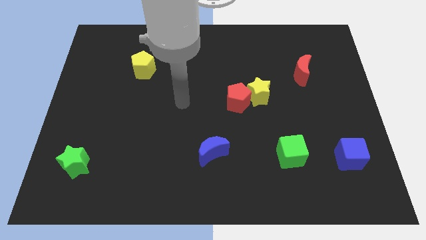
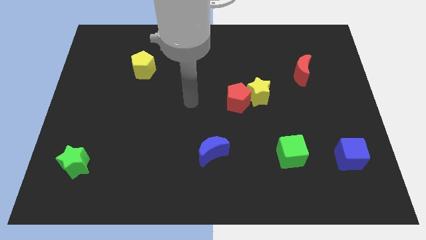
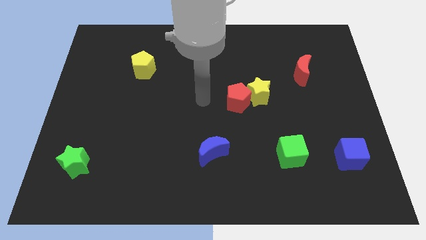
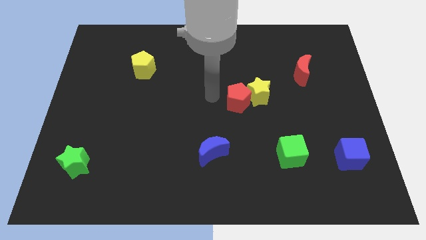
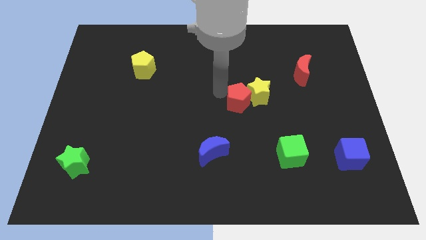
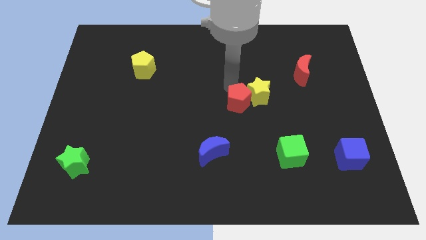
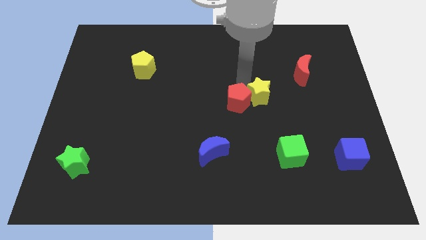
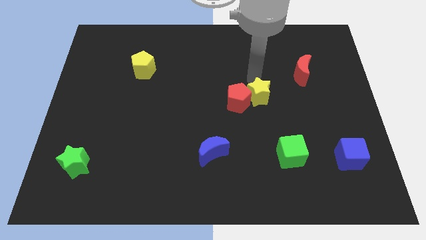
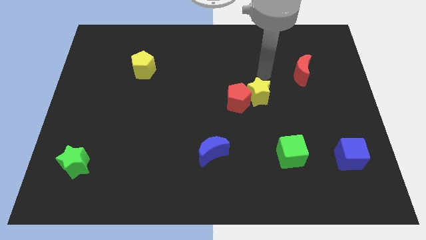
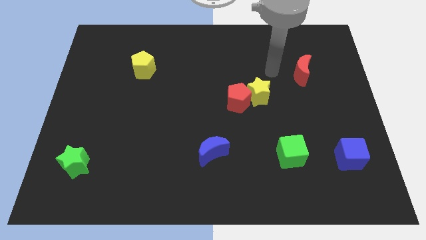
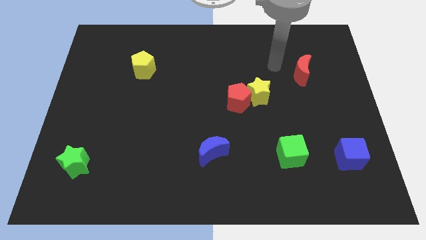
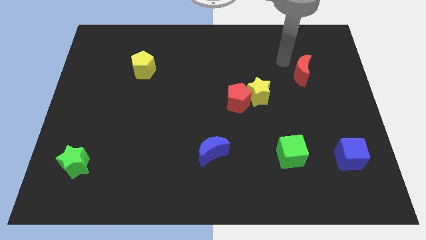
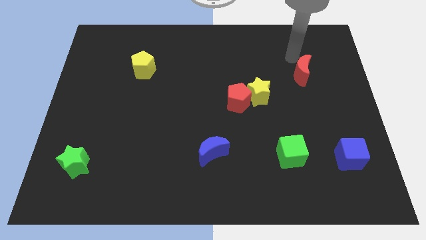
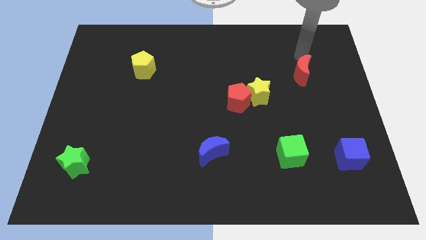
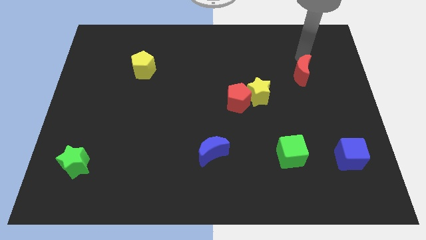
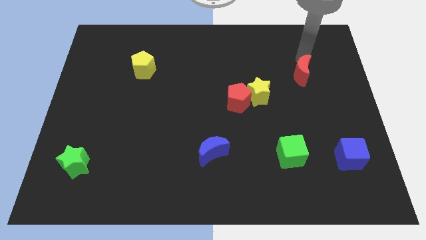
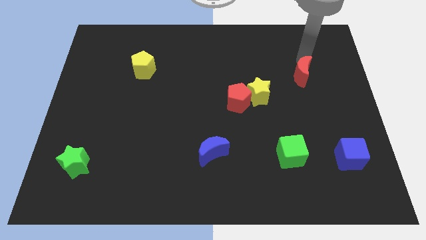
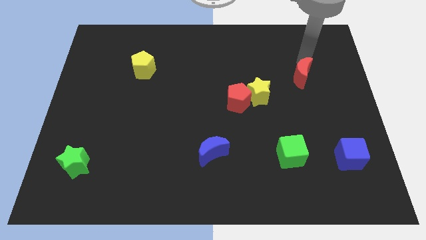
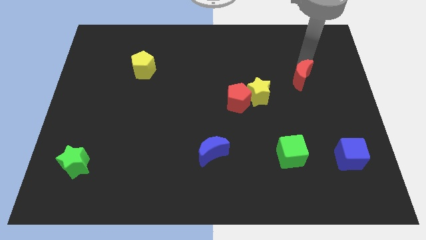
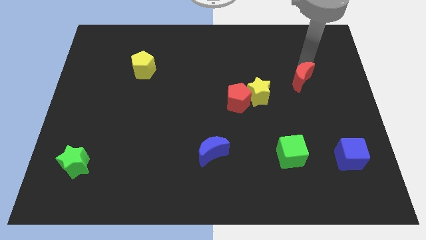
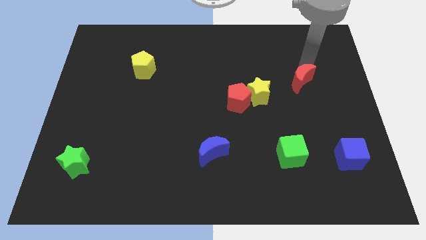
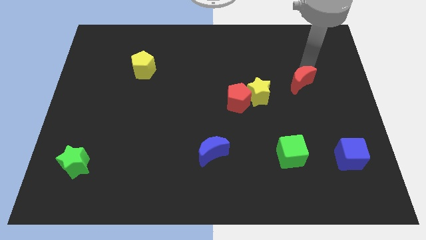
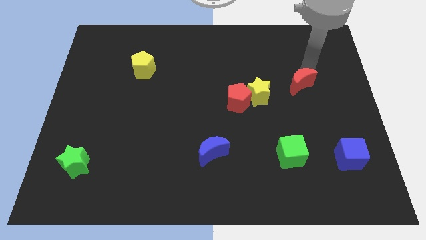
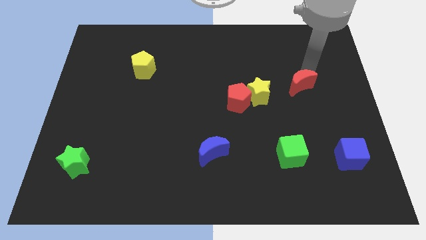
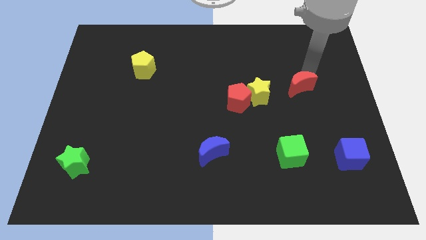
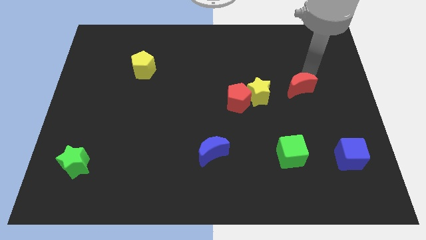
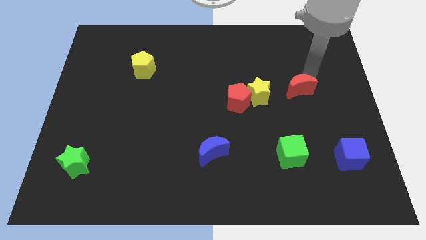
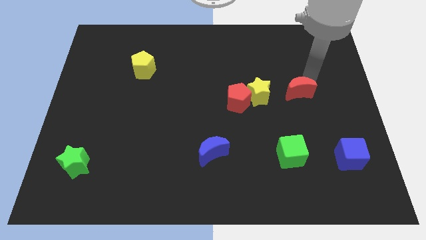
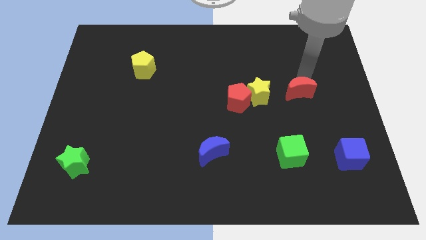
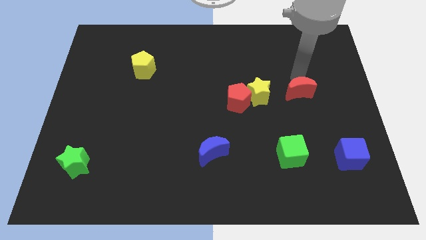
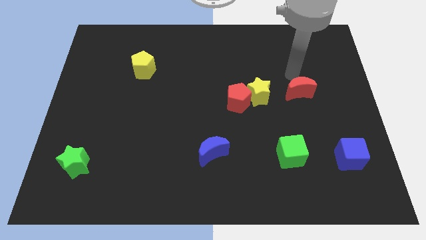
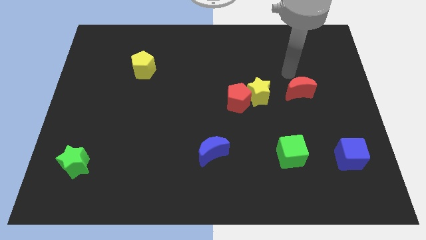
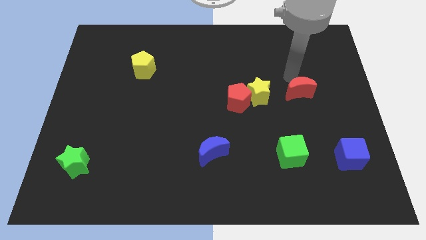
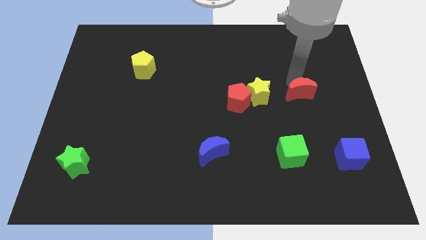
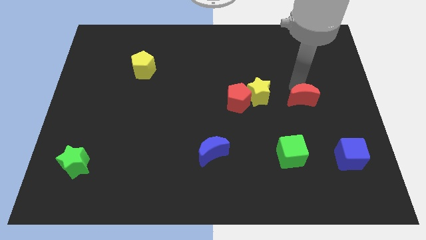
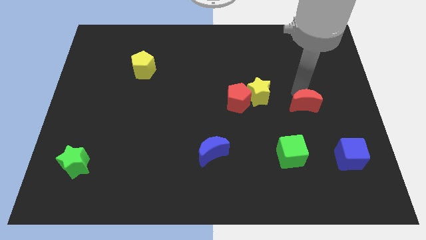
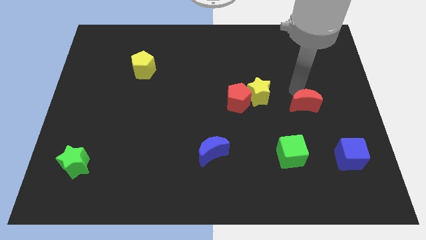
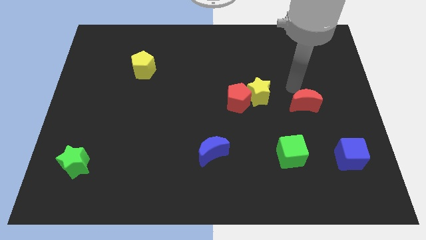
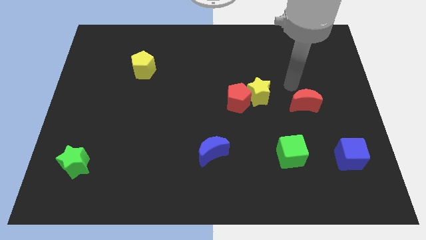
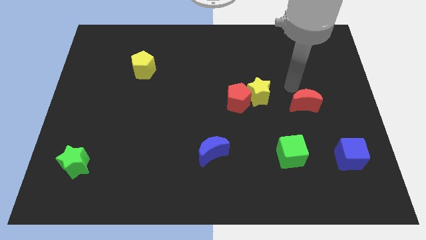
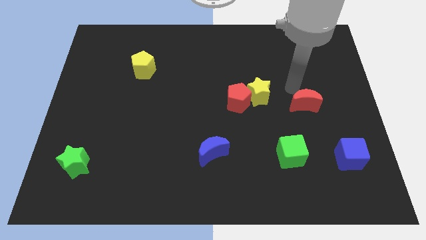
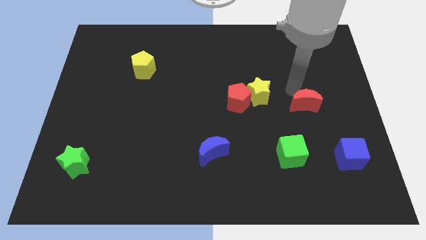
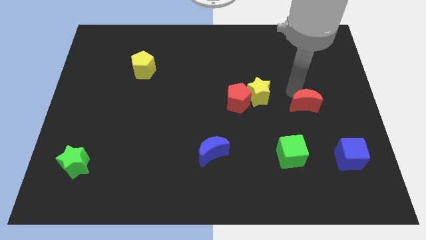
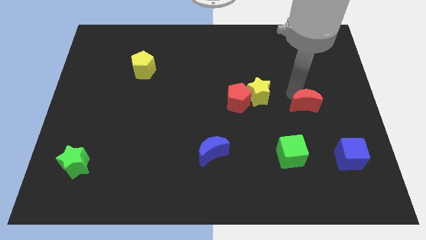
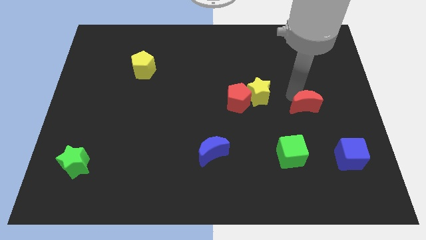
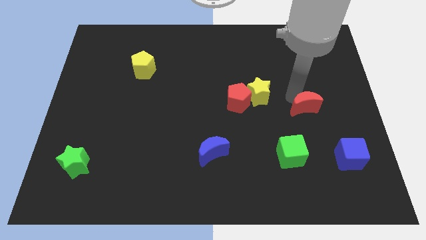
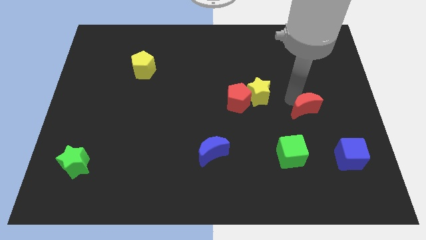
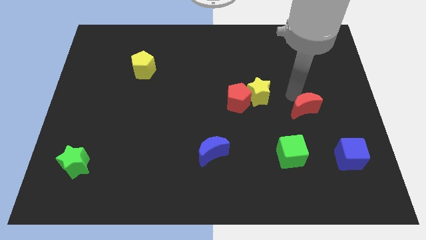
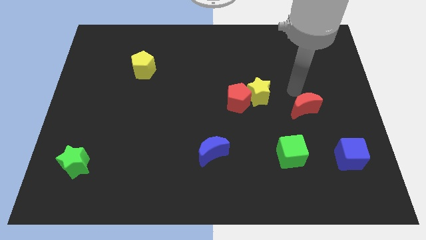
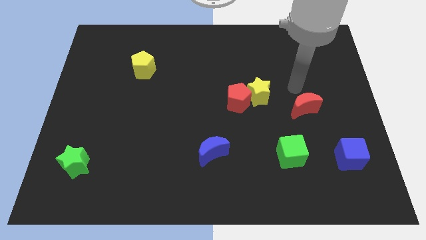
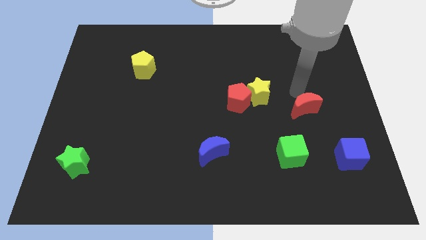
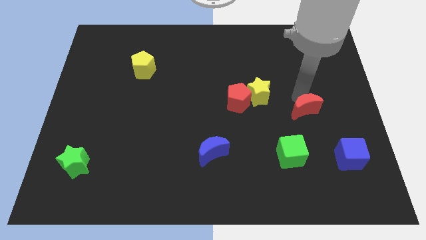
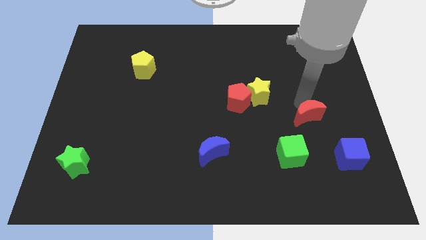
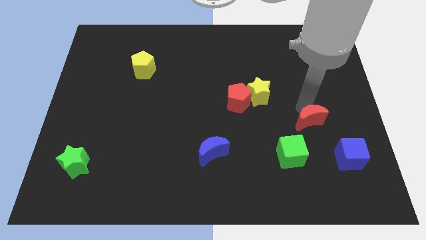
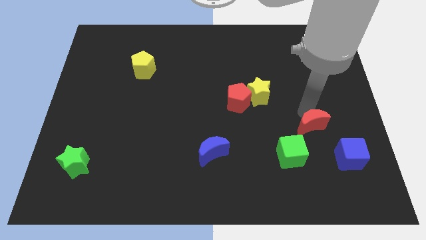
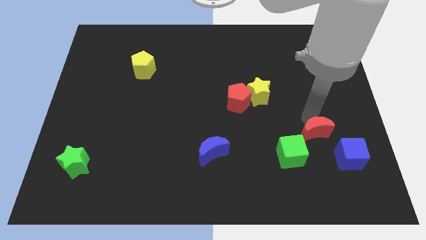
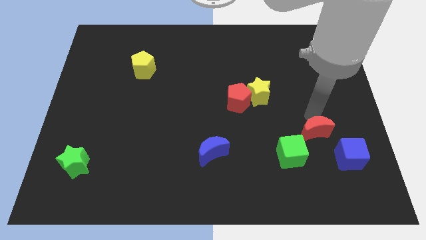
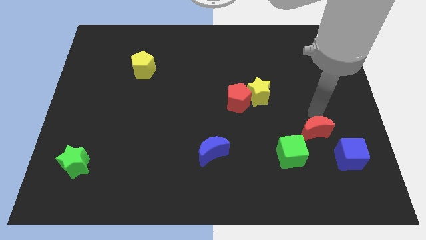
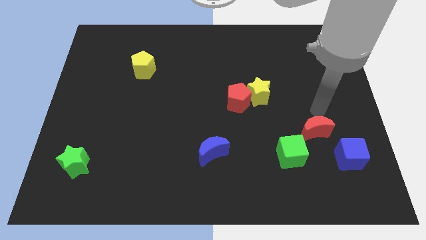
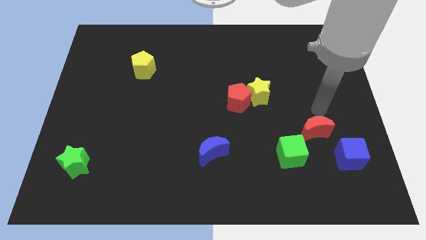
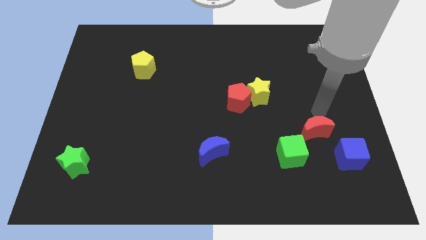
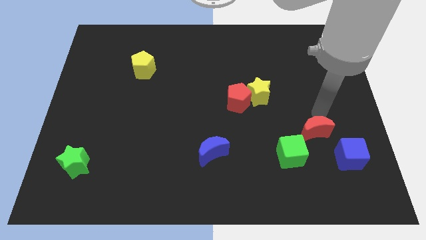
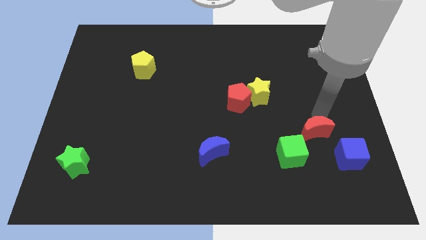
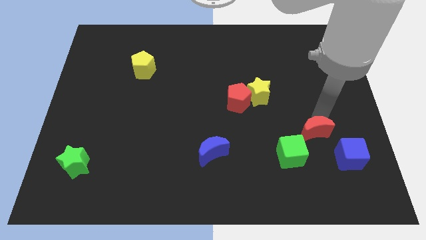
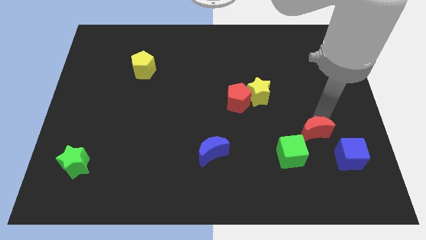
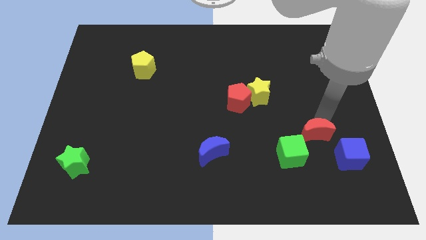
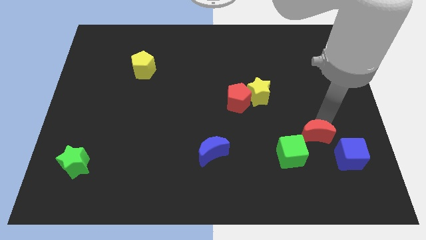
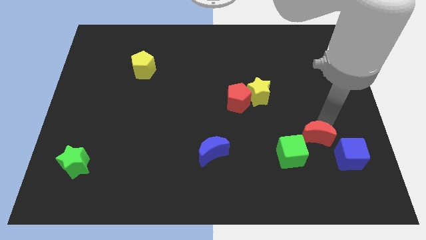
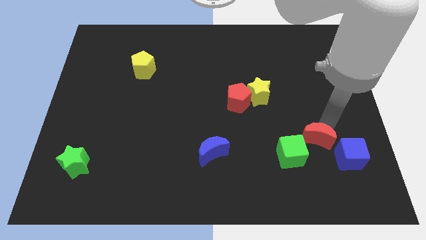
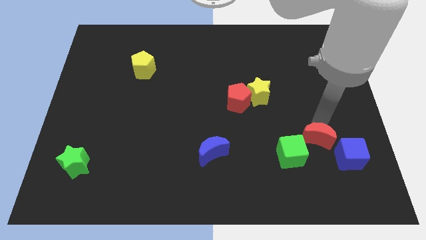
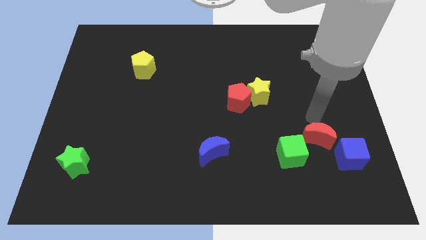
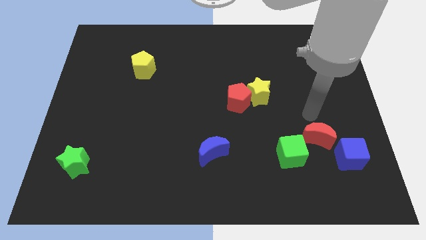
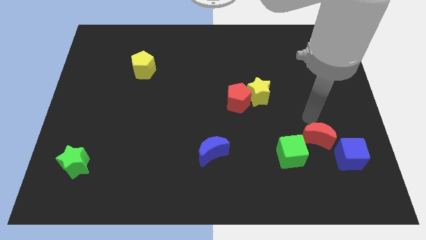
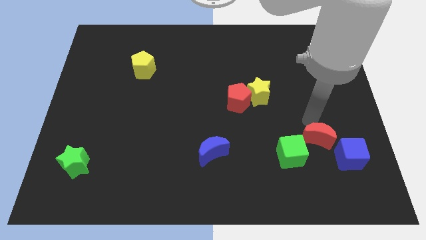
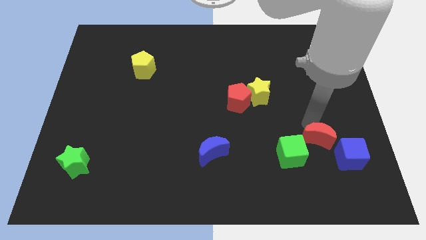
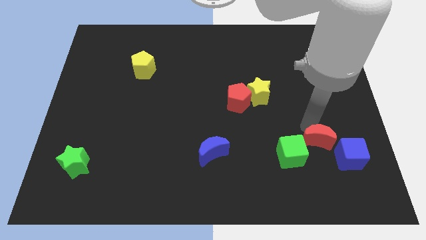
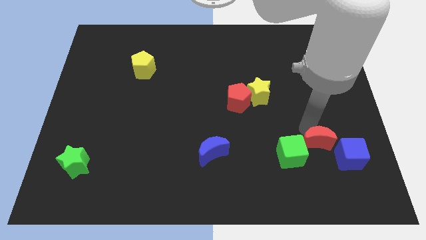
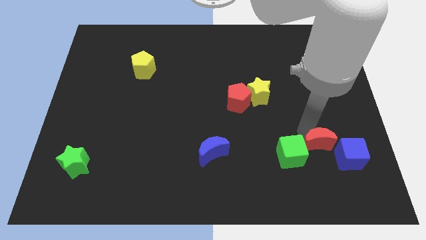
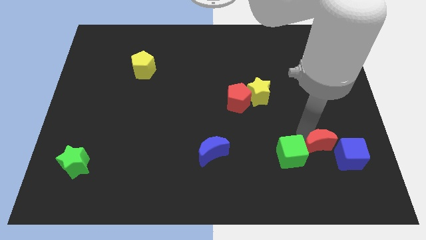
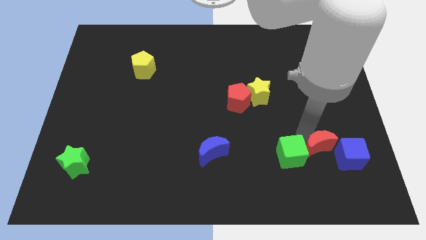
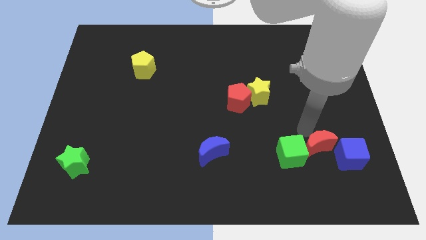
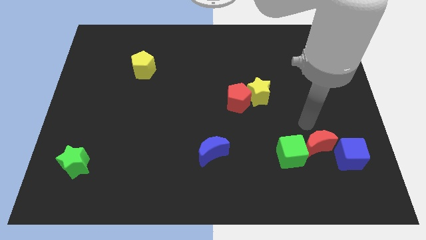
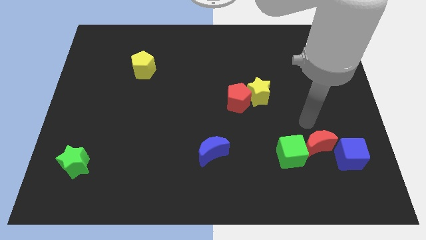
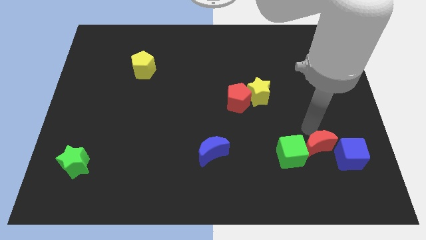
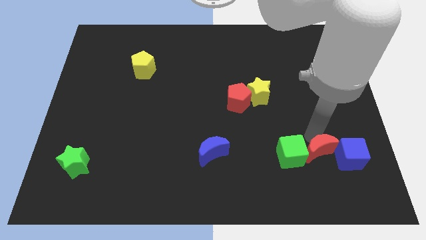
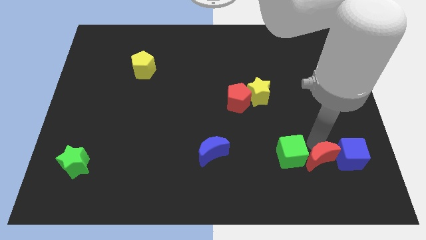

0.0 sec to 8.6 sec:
slide the red moon to the bottom left of the blue cube
